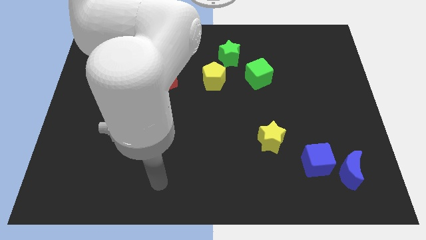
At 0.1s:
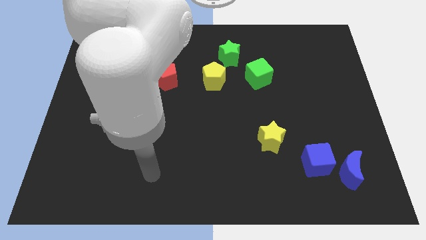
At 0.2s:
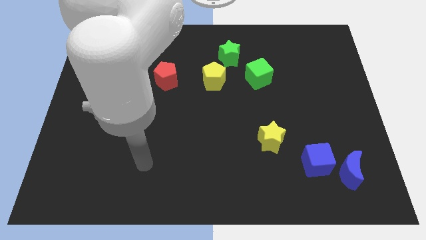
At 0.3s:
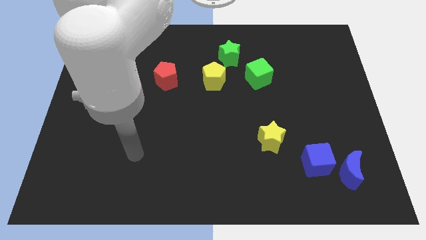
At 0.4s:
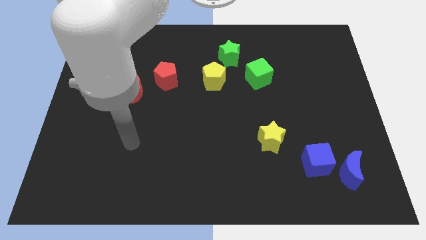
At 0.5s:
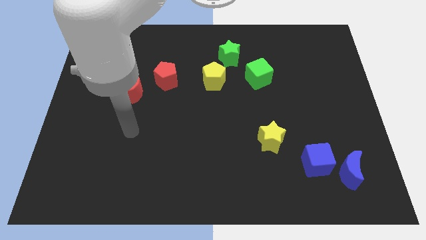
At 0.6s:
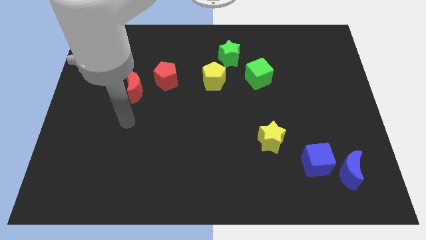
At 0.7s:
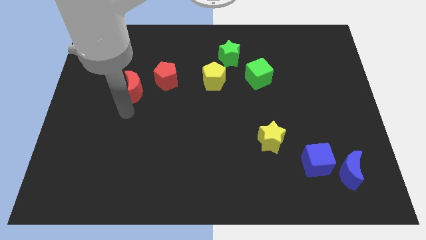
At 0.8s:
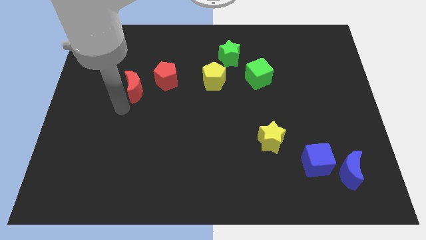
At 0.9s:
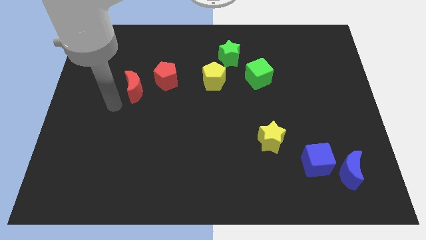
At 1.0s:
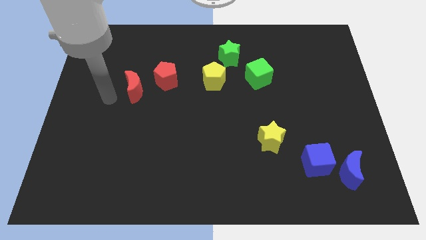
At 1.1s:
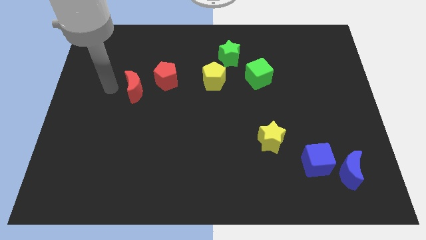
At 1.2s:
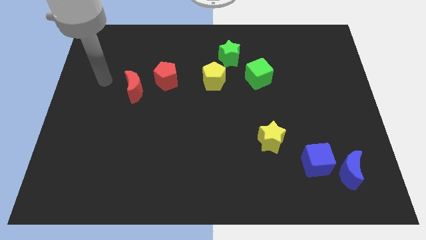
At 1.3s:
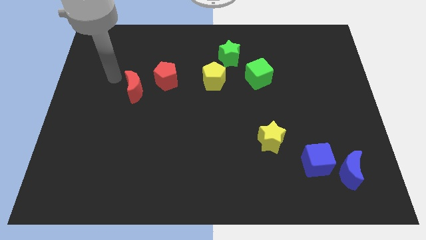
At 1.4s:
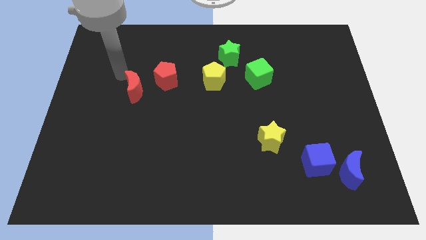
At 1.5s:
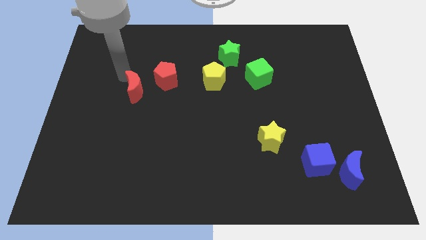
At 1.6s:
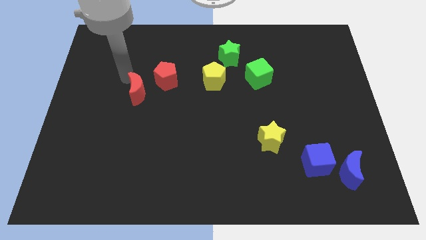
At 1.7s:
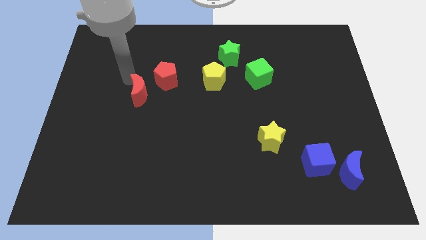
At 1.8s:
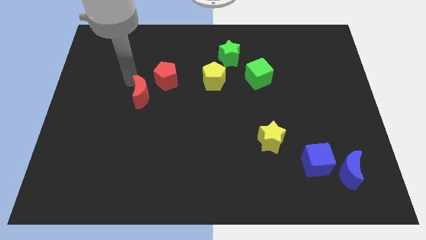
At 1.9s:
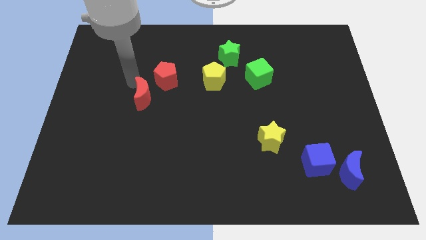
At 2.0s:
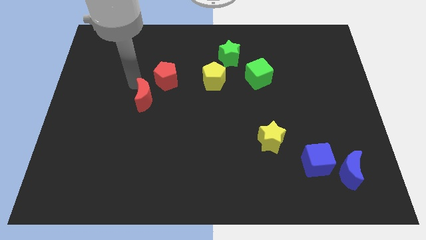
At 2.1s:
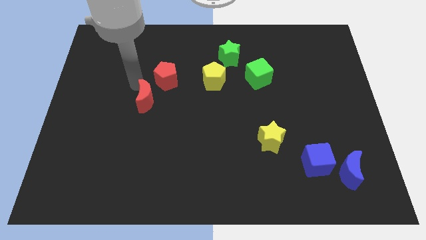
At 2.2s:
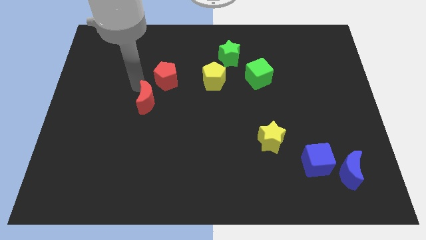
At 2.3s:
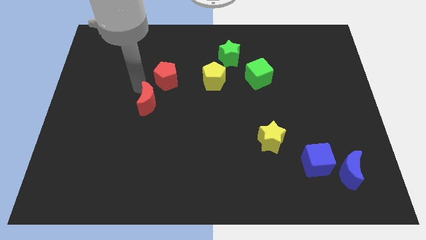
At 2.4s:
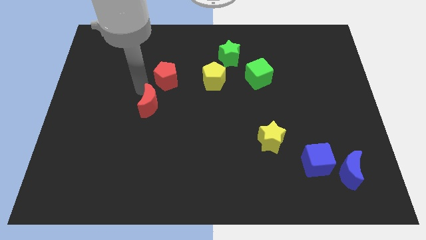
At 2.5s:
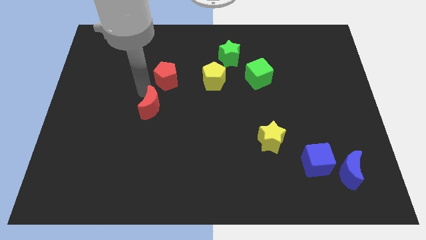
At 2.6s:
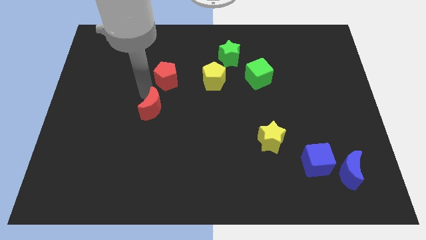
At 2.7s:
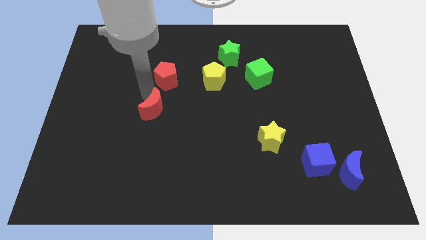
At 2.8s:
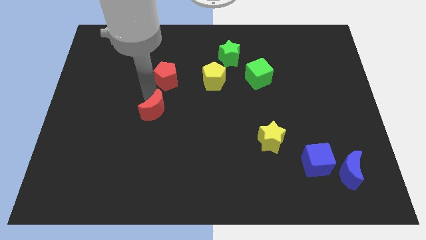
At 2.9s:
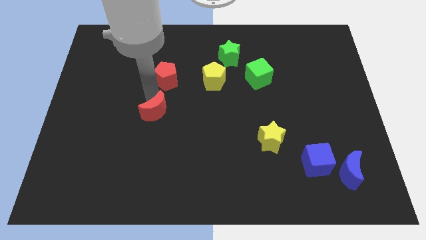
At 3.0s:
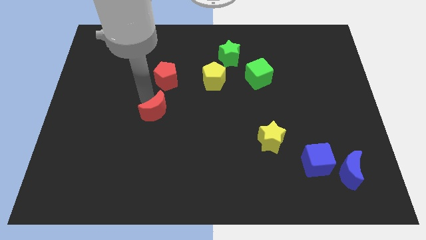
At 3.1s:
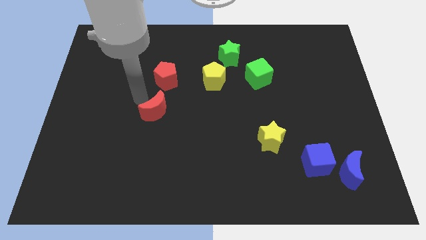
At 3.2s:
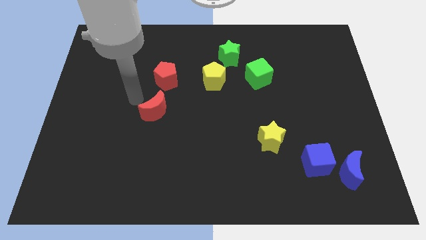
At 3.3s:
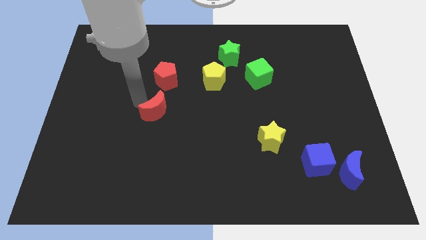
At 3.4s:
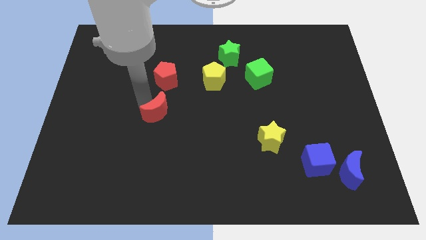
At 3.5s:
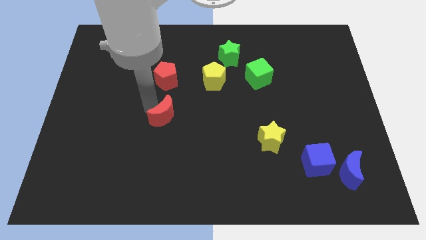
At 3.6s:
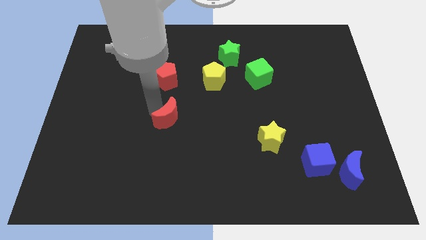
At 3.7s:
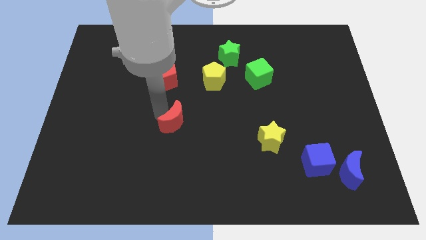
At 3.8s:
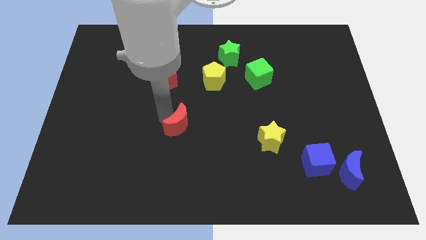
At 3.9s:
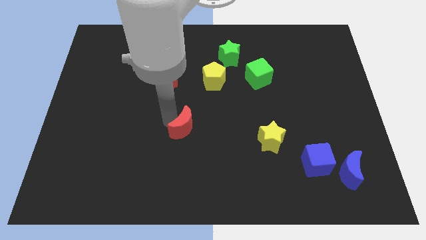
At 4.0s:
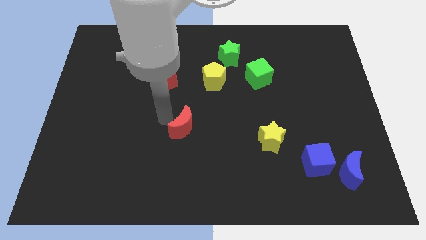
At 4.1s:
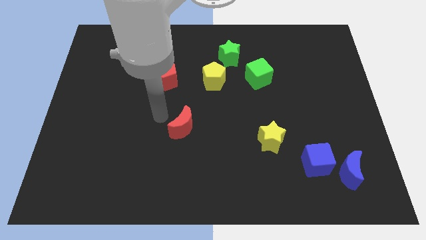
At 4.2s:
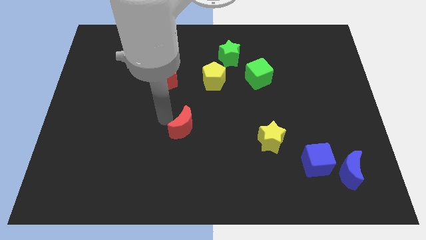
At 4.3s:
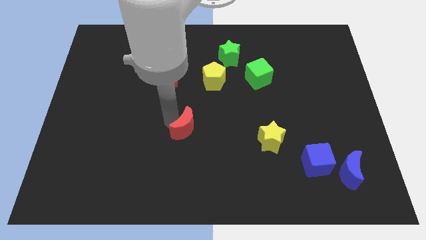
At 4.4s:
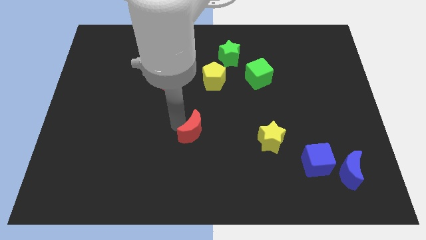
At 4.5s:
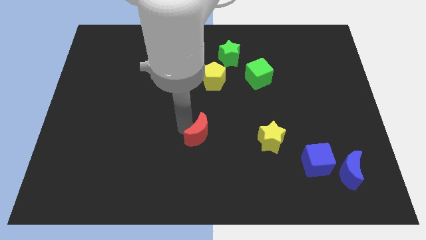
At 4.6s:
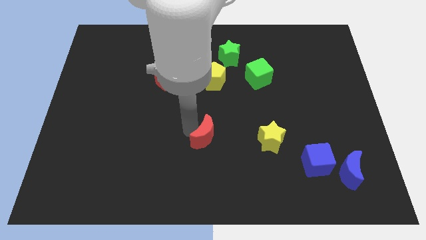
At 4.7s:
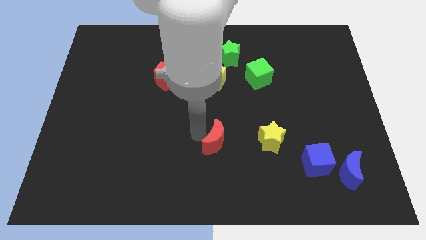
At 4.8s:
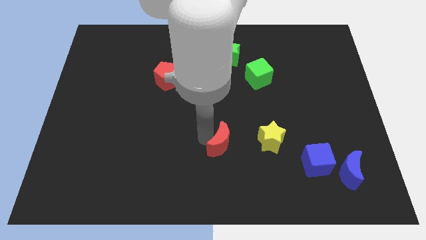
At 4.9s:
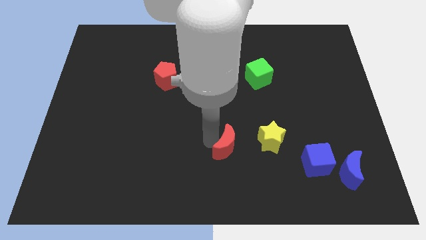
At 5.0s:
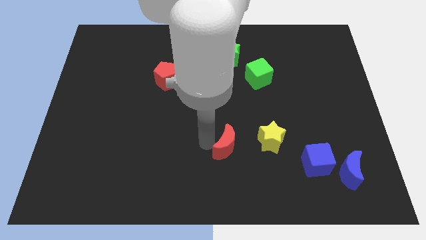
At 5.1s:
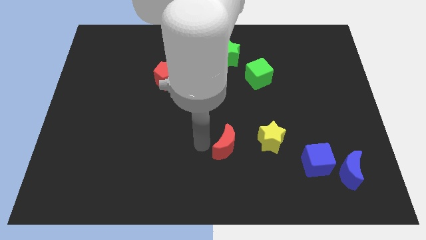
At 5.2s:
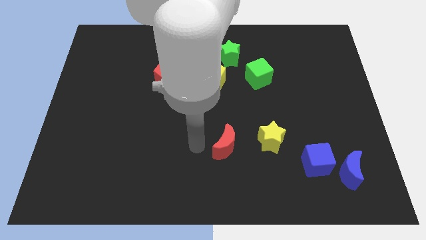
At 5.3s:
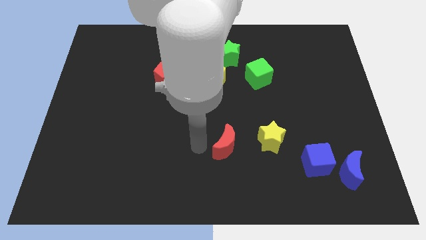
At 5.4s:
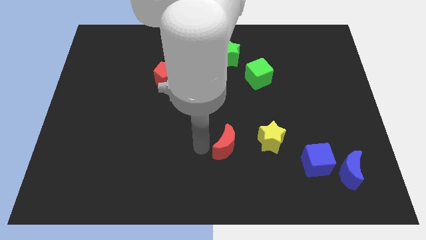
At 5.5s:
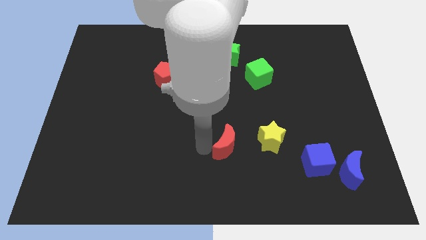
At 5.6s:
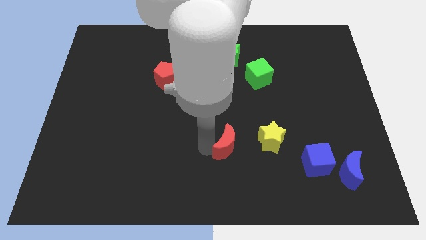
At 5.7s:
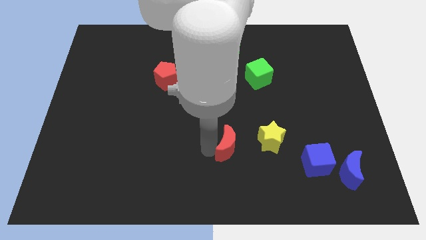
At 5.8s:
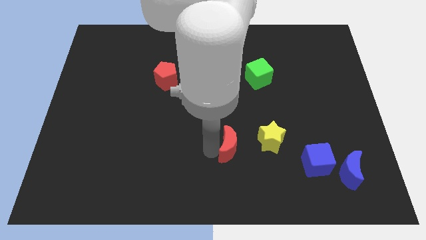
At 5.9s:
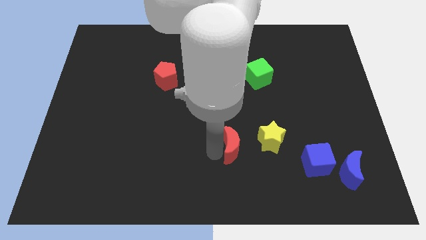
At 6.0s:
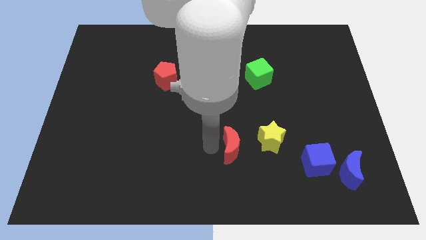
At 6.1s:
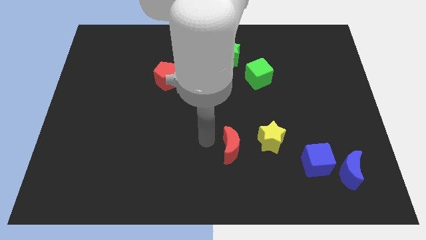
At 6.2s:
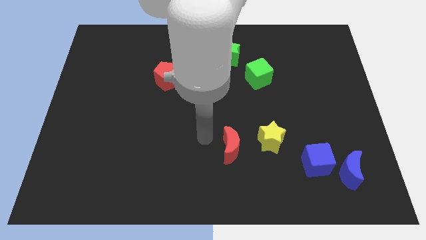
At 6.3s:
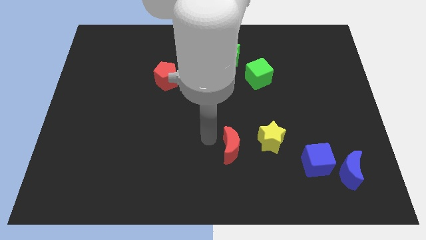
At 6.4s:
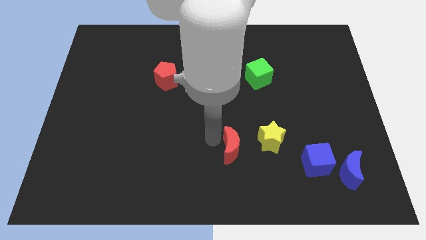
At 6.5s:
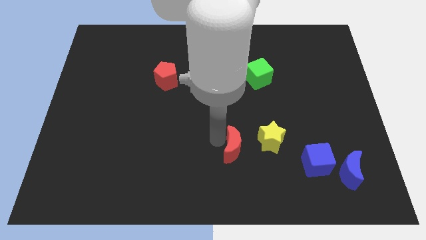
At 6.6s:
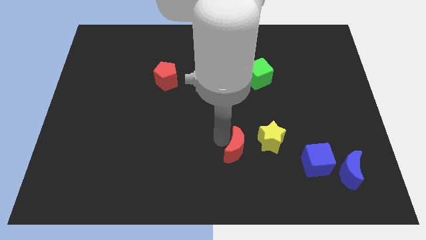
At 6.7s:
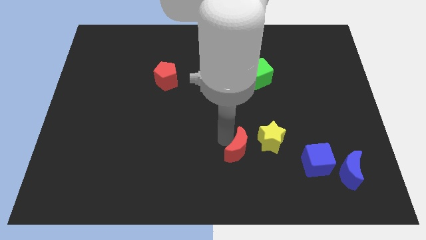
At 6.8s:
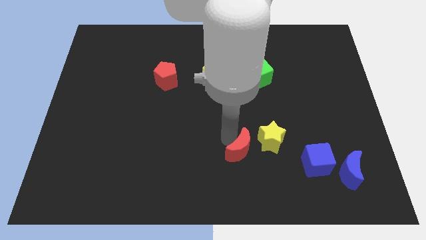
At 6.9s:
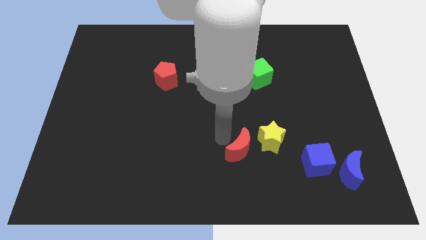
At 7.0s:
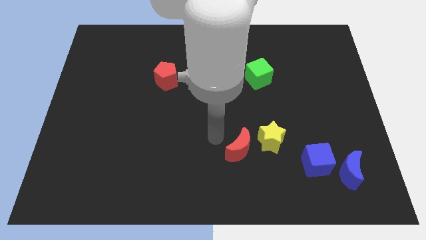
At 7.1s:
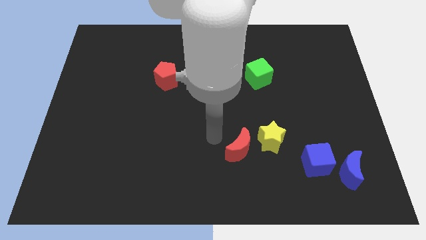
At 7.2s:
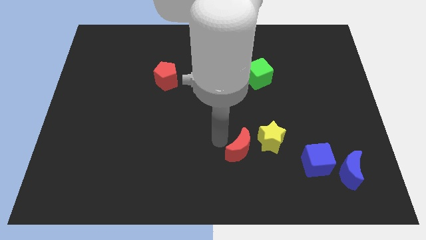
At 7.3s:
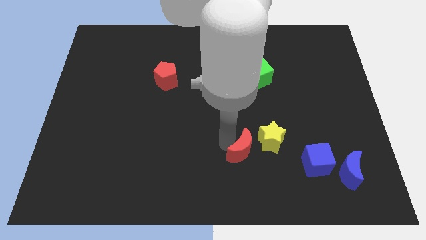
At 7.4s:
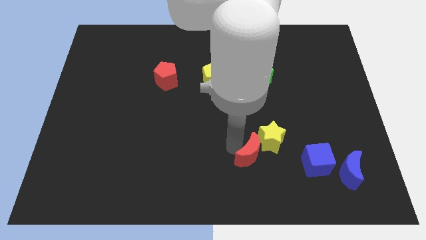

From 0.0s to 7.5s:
put the red moon just left of the blue cube
